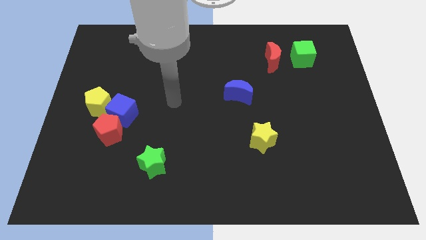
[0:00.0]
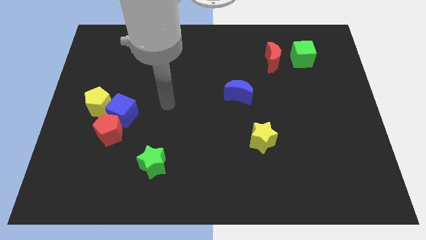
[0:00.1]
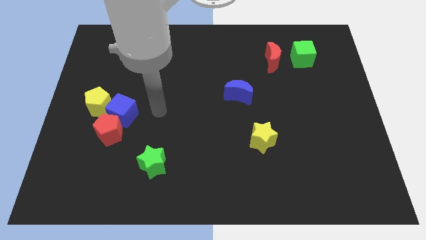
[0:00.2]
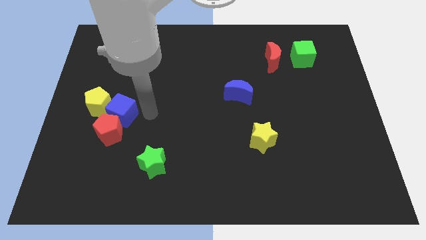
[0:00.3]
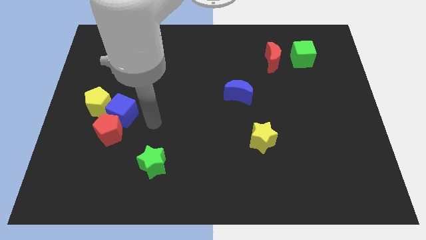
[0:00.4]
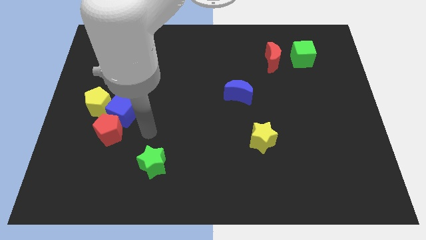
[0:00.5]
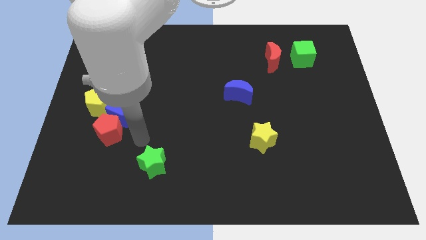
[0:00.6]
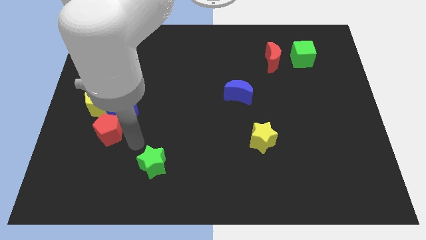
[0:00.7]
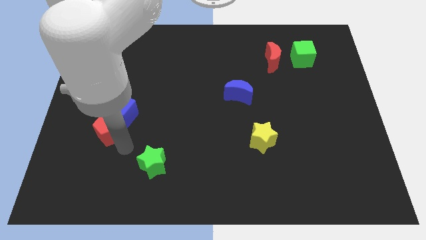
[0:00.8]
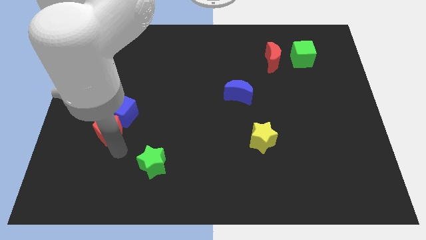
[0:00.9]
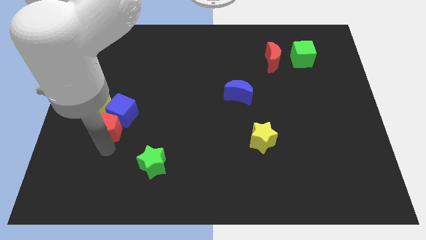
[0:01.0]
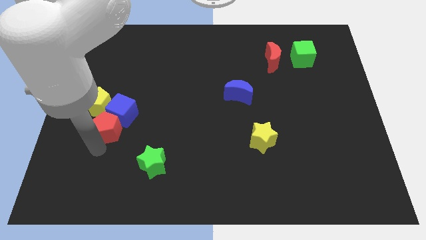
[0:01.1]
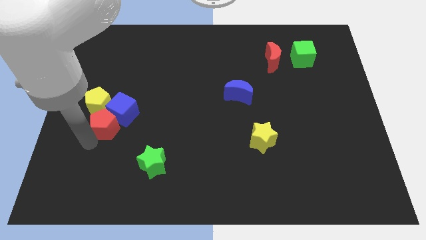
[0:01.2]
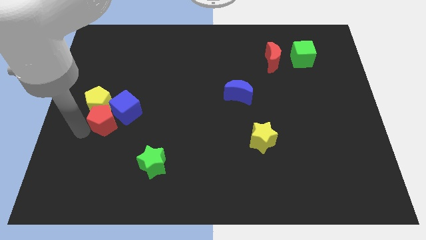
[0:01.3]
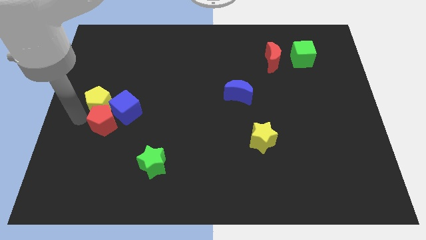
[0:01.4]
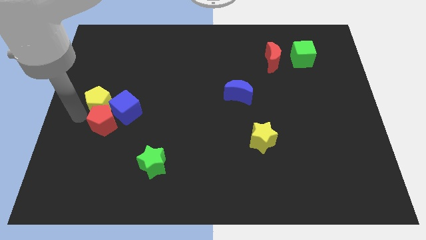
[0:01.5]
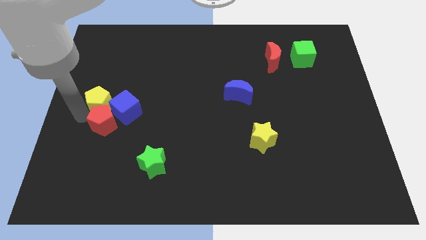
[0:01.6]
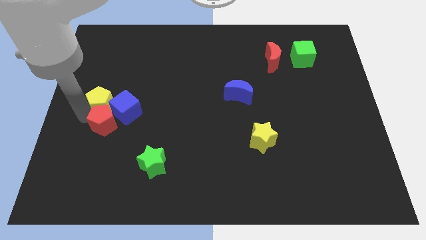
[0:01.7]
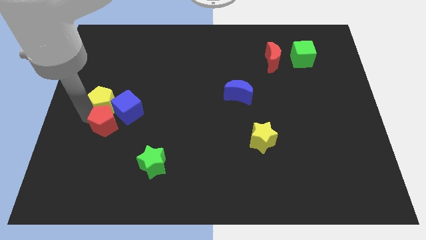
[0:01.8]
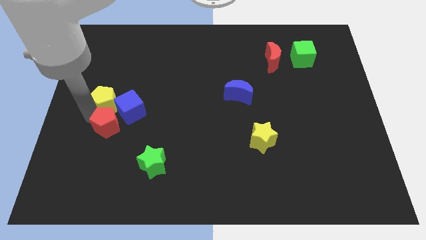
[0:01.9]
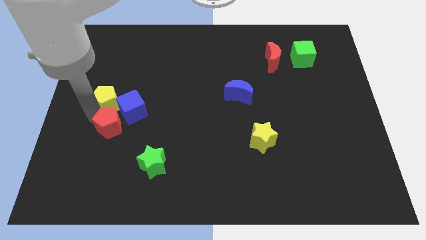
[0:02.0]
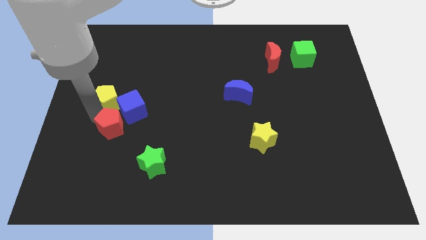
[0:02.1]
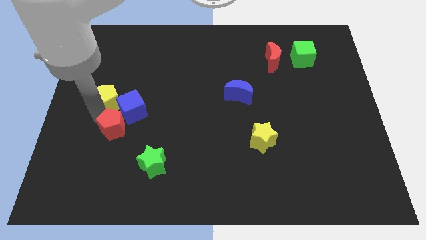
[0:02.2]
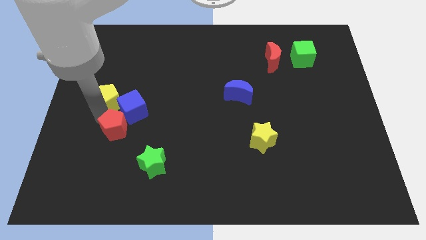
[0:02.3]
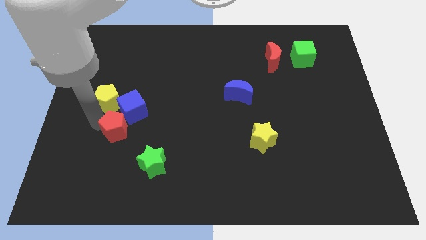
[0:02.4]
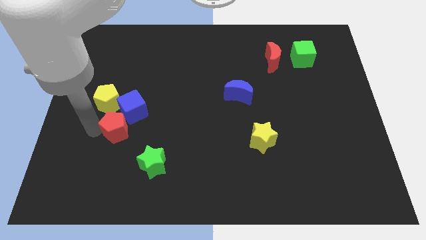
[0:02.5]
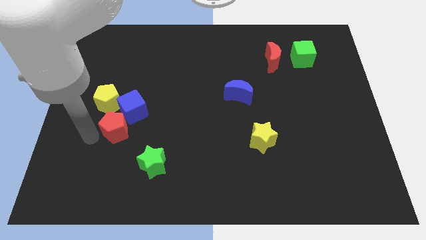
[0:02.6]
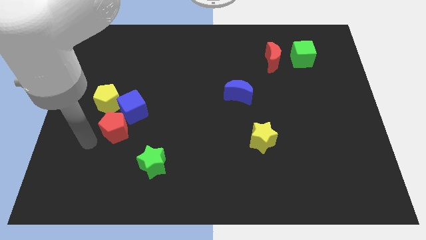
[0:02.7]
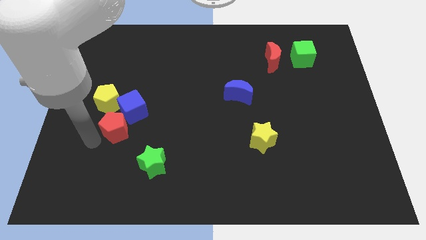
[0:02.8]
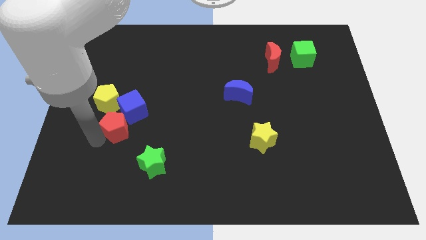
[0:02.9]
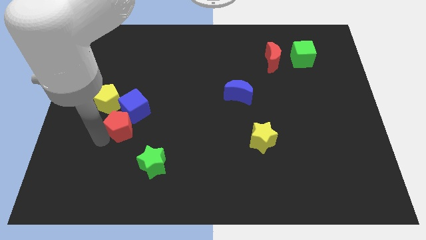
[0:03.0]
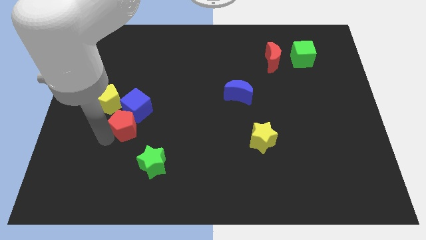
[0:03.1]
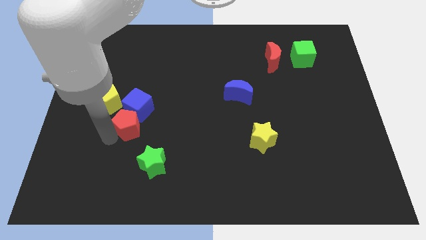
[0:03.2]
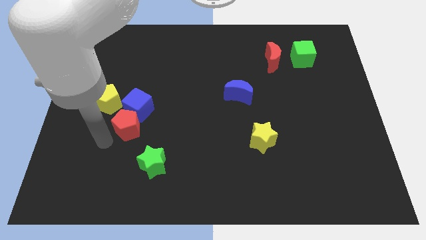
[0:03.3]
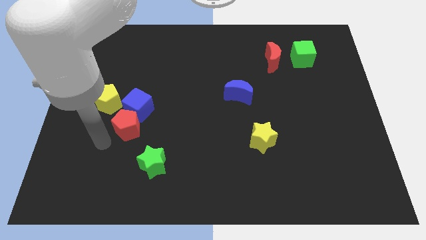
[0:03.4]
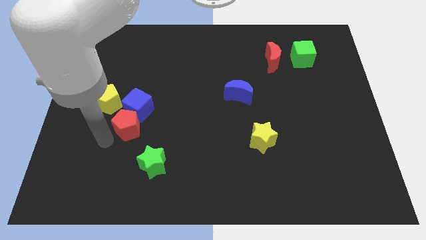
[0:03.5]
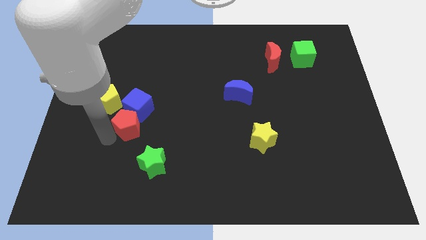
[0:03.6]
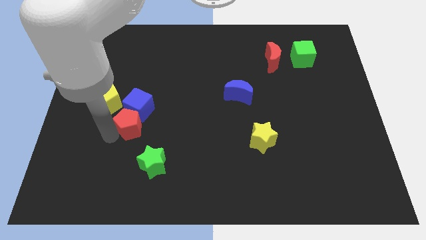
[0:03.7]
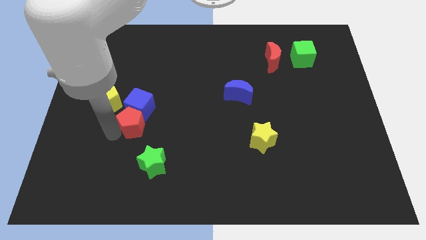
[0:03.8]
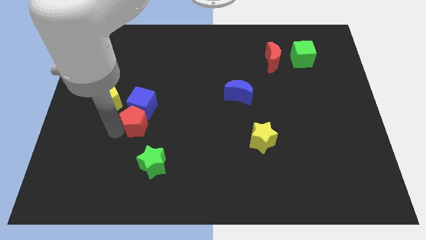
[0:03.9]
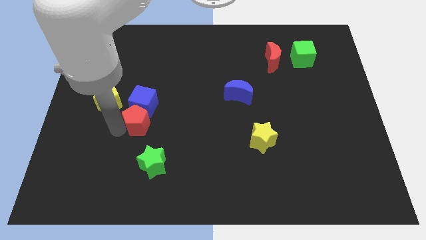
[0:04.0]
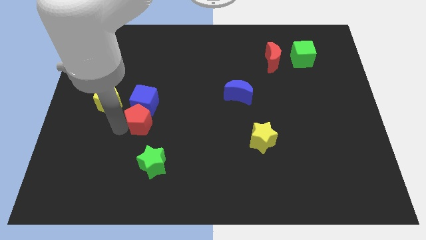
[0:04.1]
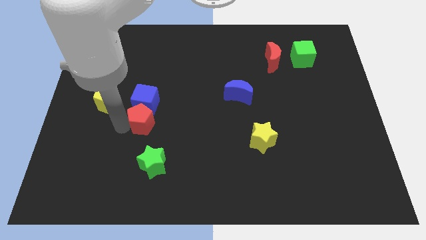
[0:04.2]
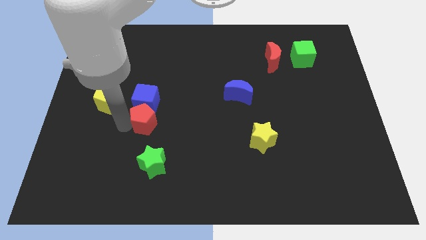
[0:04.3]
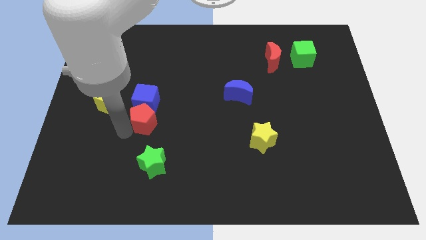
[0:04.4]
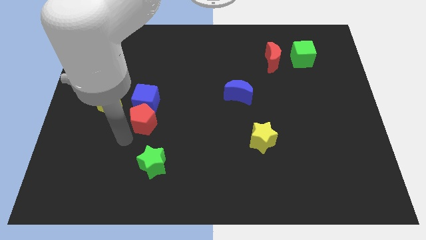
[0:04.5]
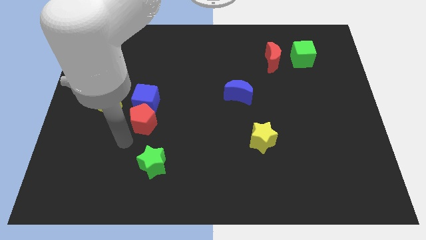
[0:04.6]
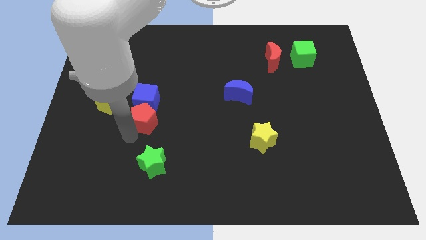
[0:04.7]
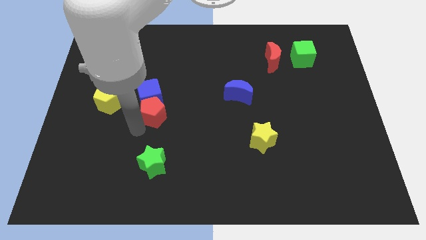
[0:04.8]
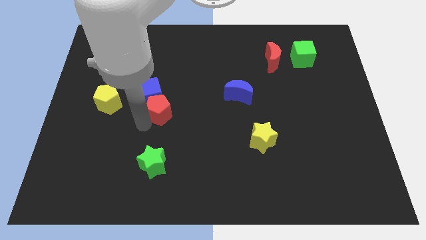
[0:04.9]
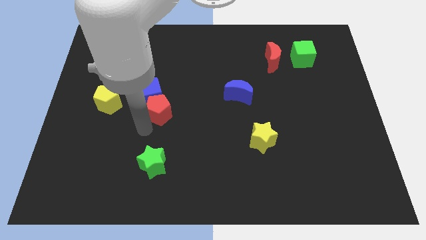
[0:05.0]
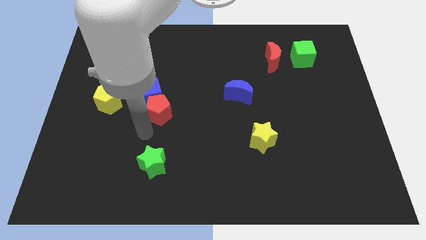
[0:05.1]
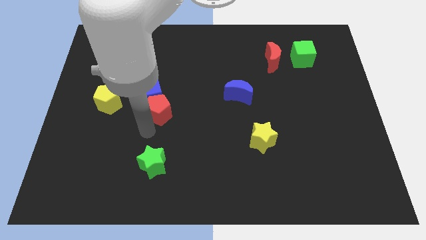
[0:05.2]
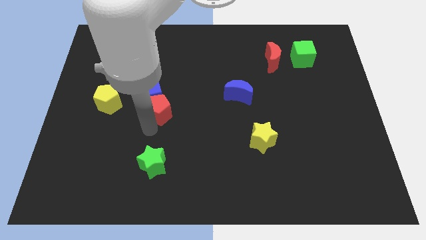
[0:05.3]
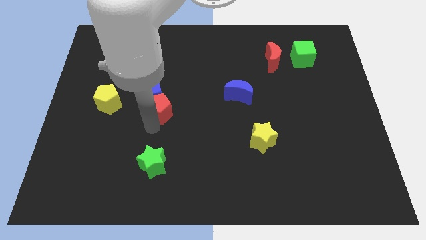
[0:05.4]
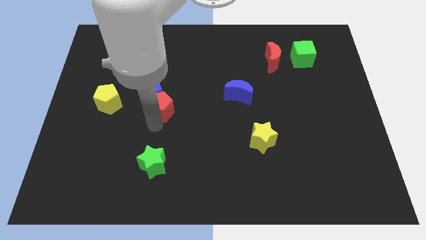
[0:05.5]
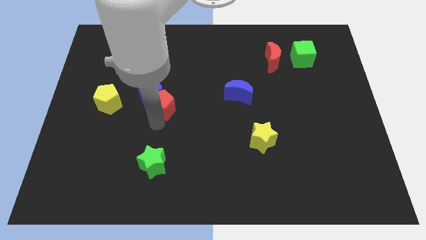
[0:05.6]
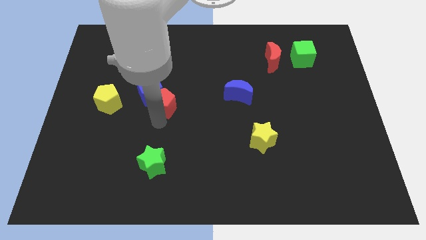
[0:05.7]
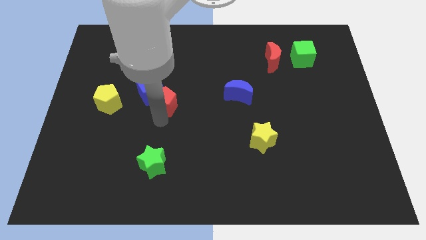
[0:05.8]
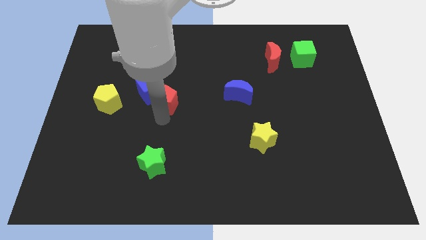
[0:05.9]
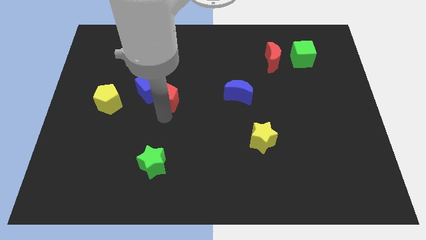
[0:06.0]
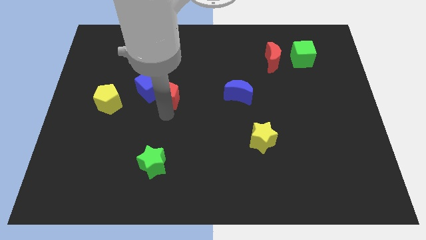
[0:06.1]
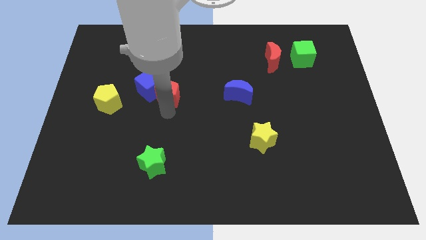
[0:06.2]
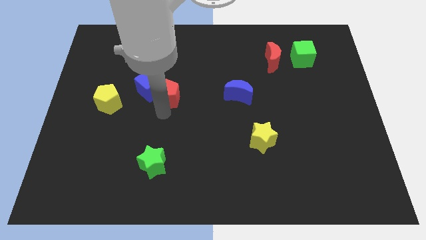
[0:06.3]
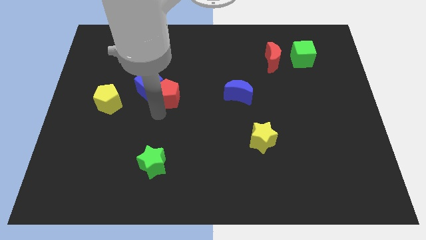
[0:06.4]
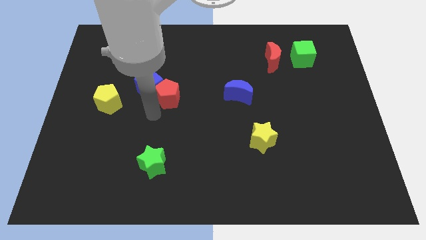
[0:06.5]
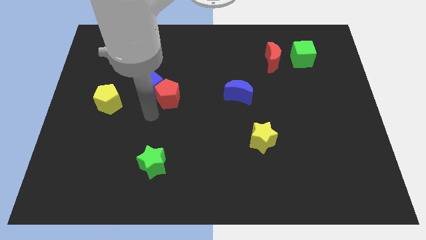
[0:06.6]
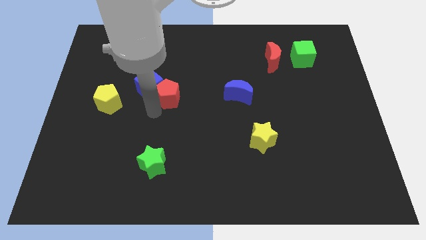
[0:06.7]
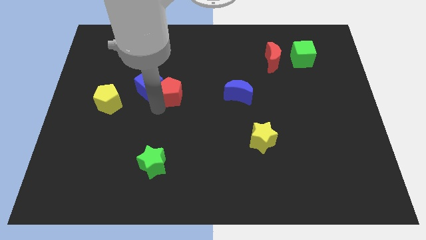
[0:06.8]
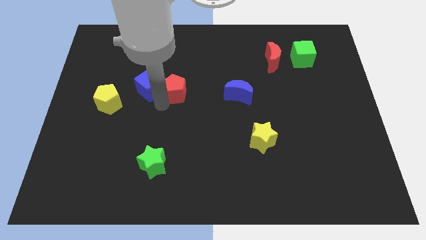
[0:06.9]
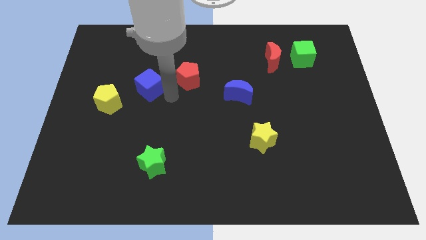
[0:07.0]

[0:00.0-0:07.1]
slide the red pentagon upwards and right diagonally

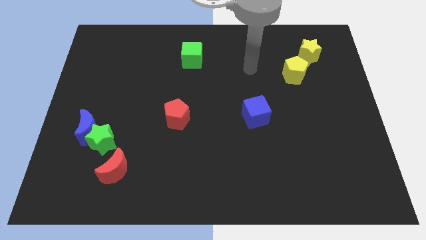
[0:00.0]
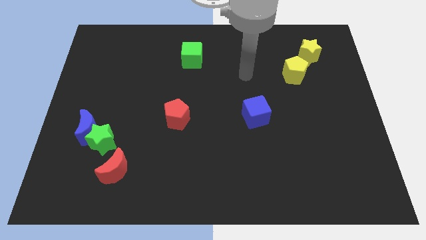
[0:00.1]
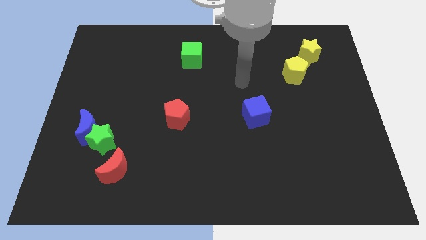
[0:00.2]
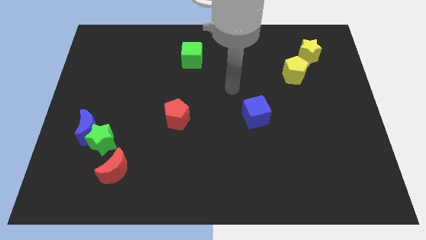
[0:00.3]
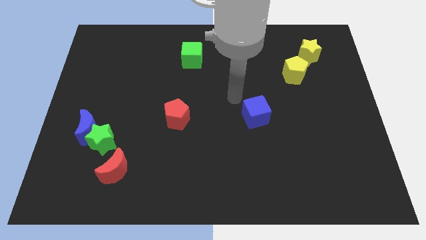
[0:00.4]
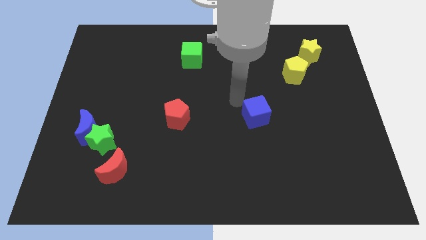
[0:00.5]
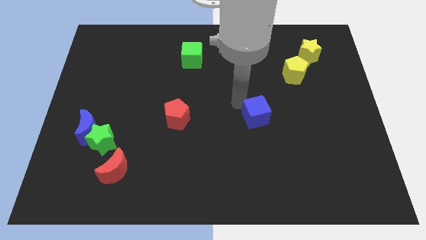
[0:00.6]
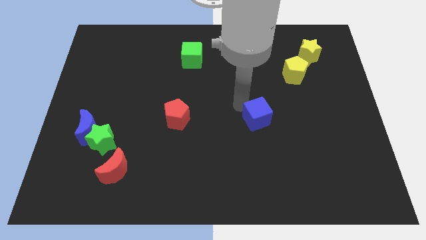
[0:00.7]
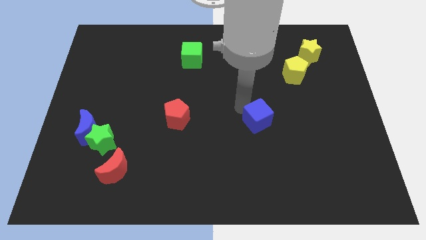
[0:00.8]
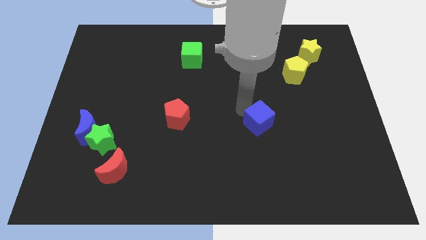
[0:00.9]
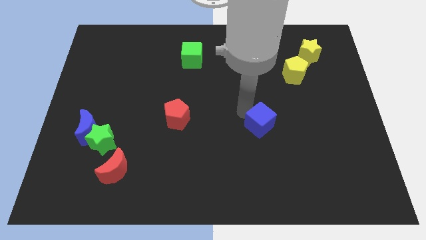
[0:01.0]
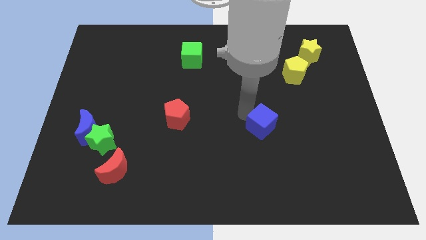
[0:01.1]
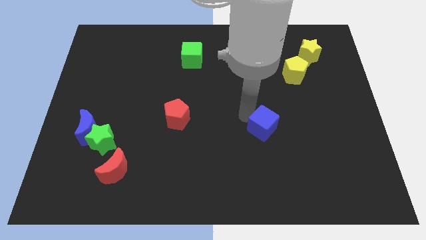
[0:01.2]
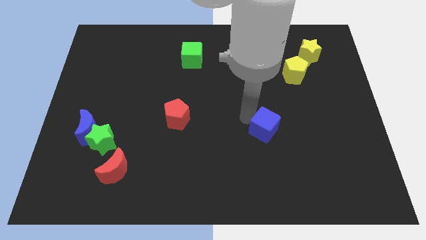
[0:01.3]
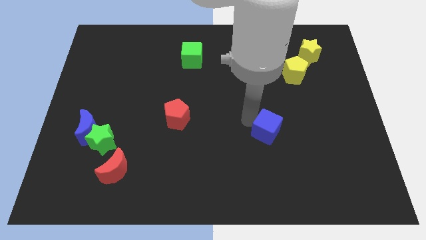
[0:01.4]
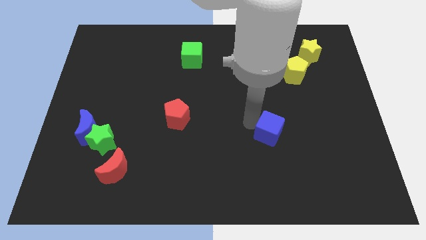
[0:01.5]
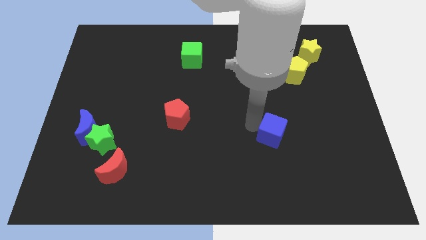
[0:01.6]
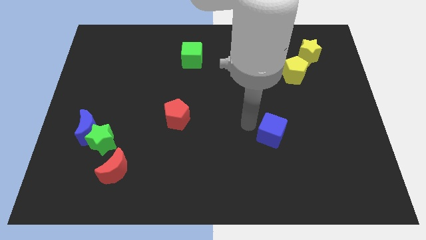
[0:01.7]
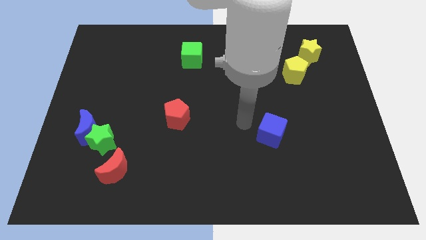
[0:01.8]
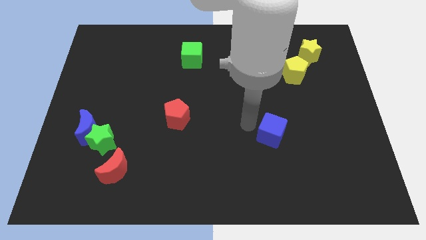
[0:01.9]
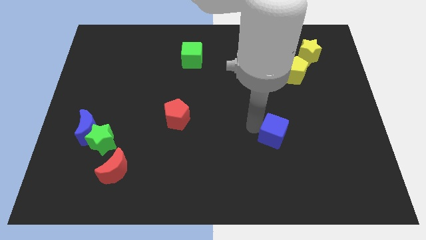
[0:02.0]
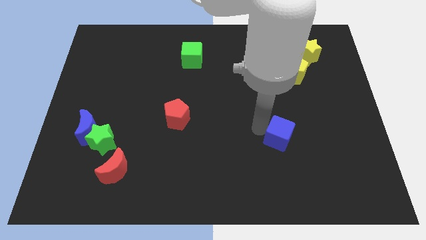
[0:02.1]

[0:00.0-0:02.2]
slide the blue cube down and to the right somewhat
